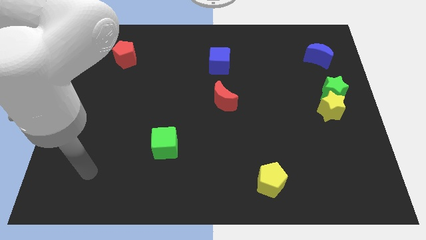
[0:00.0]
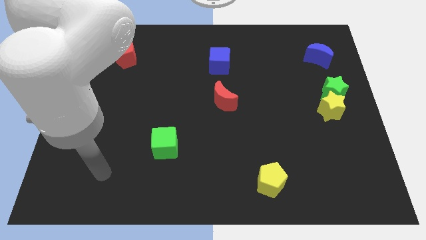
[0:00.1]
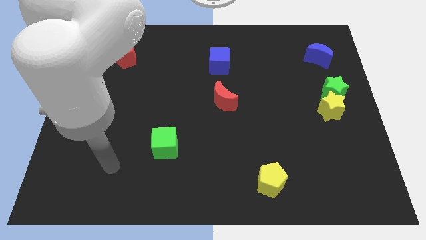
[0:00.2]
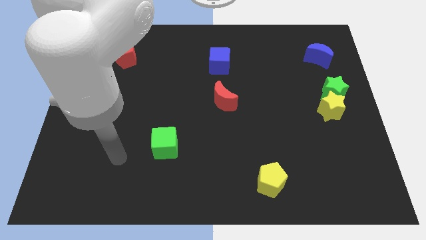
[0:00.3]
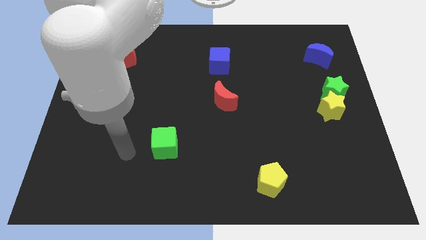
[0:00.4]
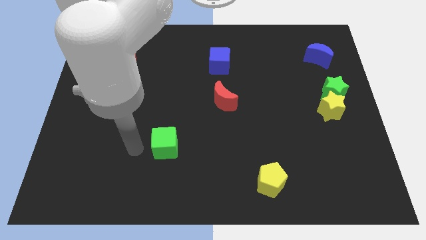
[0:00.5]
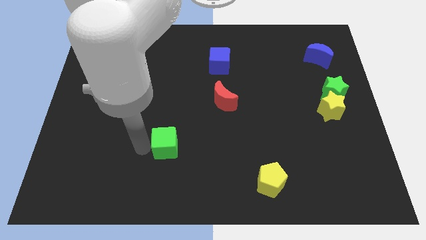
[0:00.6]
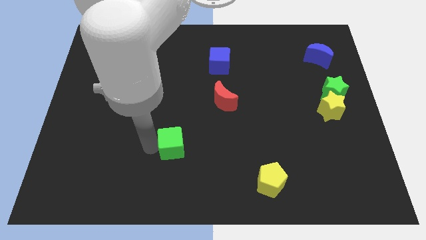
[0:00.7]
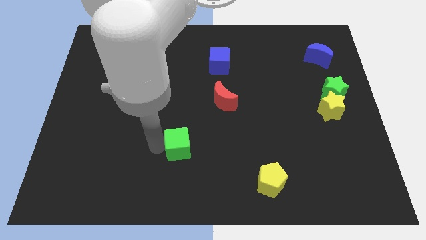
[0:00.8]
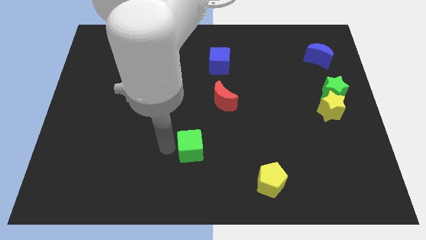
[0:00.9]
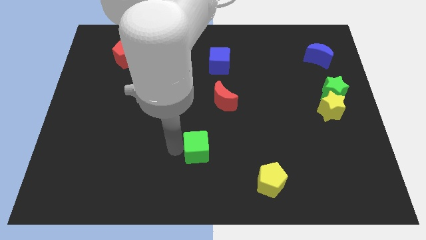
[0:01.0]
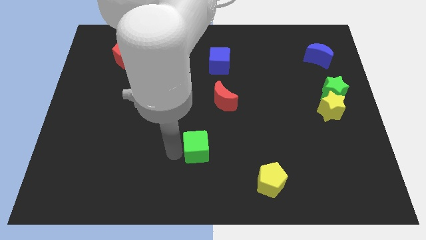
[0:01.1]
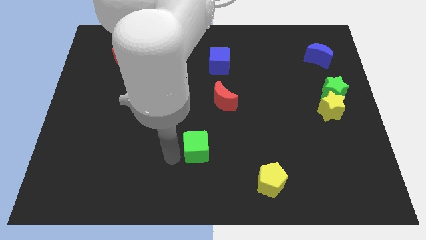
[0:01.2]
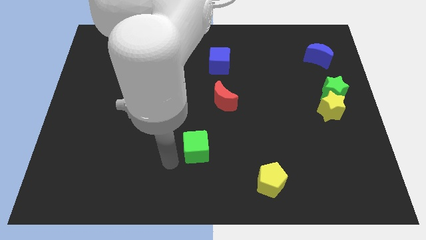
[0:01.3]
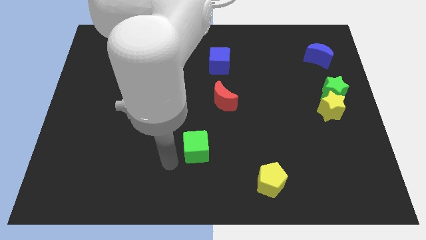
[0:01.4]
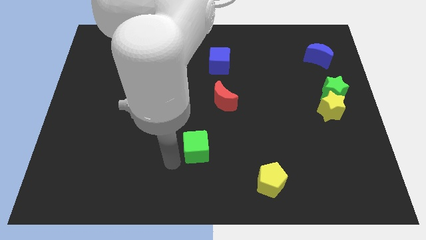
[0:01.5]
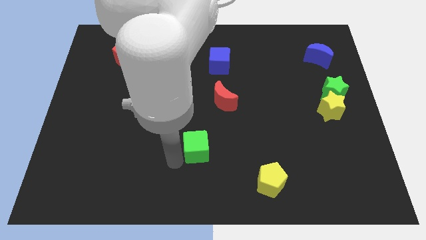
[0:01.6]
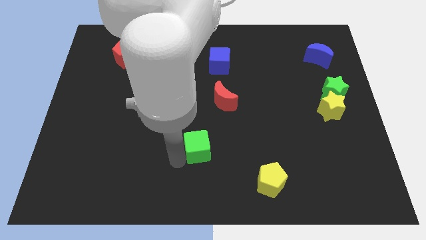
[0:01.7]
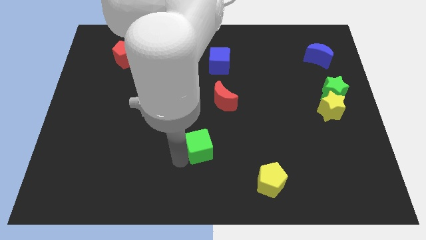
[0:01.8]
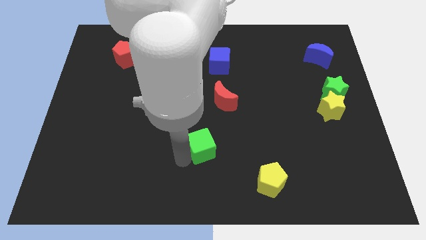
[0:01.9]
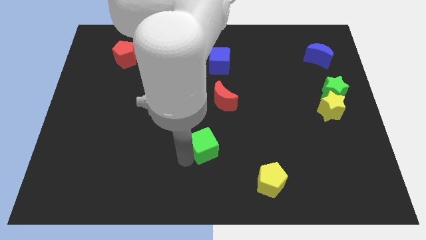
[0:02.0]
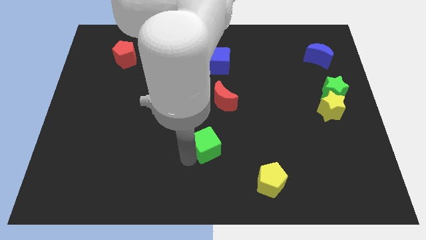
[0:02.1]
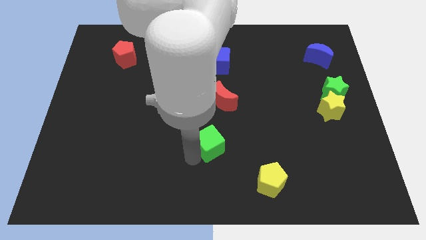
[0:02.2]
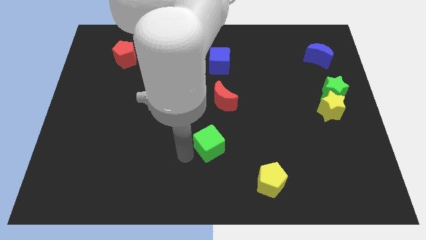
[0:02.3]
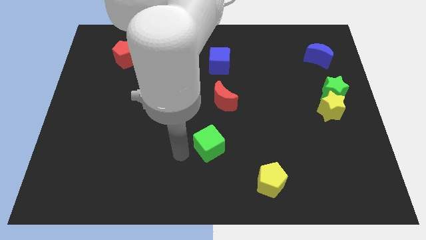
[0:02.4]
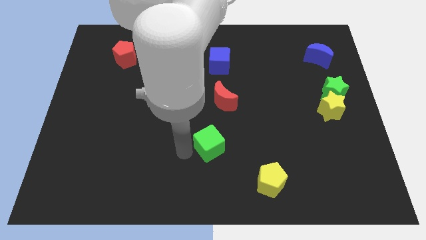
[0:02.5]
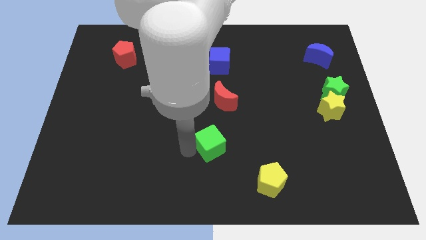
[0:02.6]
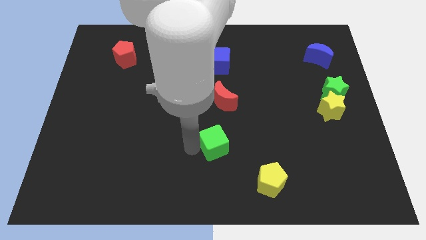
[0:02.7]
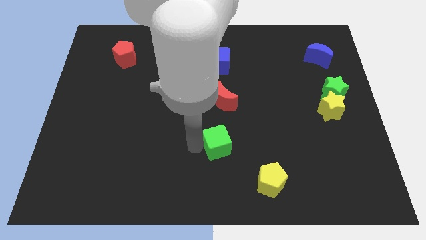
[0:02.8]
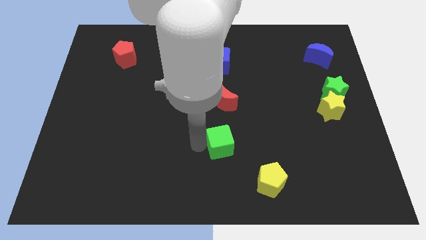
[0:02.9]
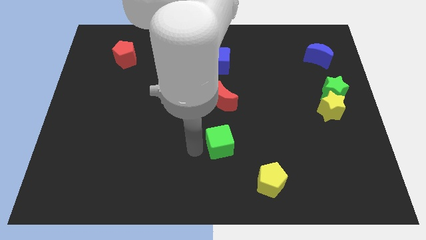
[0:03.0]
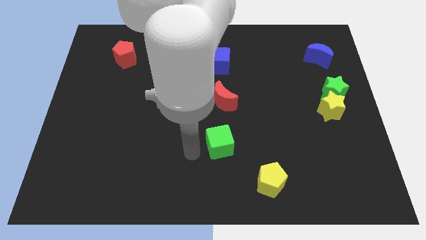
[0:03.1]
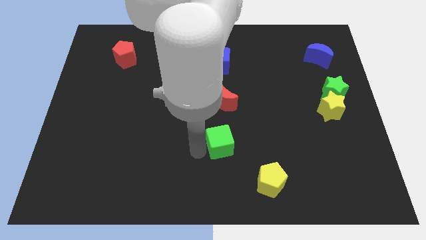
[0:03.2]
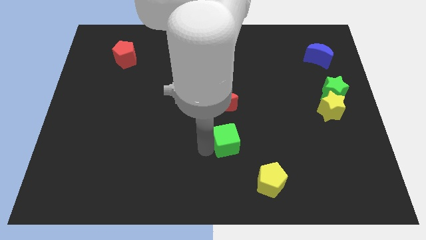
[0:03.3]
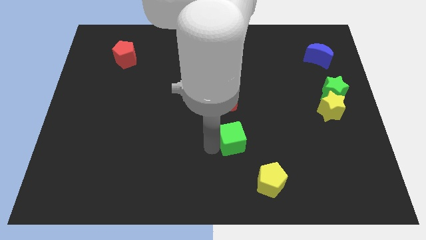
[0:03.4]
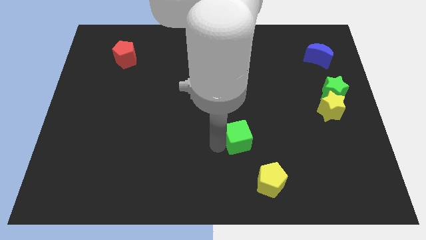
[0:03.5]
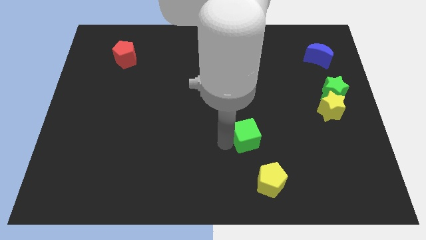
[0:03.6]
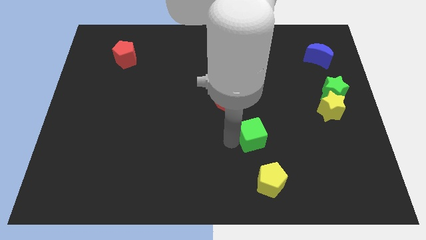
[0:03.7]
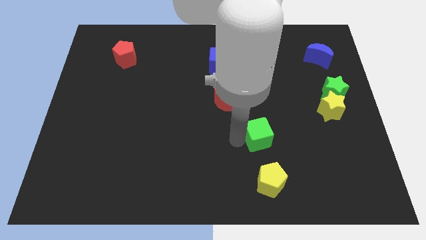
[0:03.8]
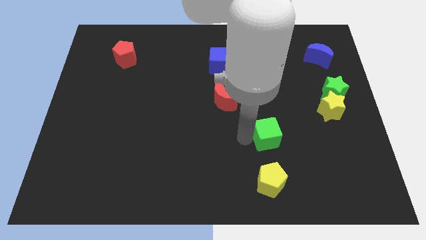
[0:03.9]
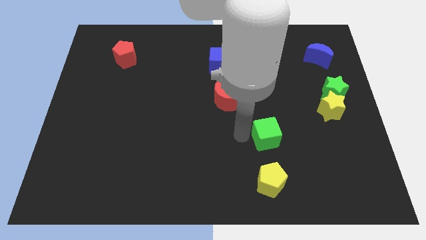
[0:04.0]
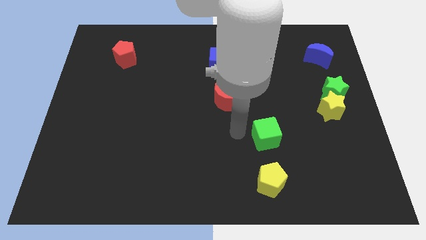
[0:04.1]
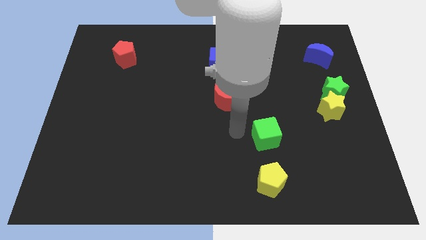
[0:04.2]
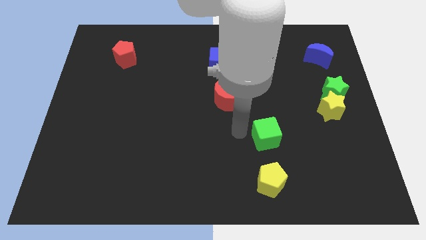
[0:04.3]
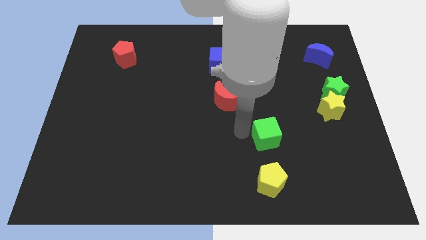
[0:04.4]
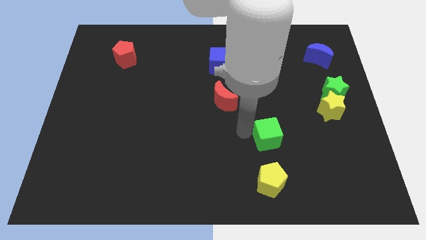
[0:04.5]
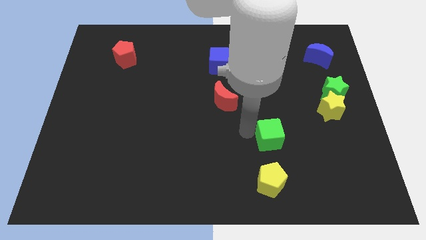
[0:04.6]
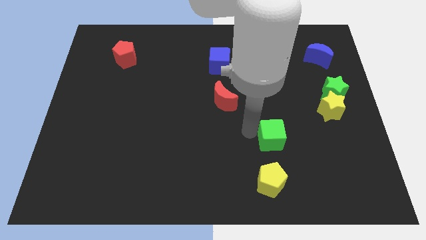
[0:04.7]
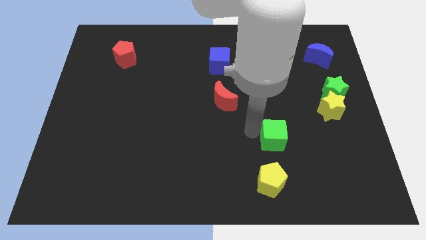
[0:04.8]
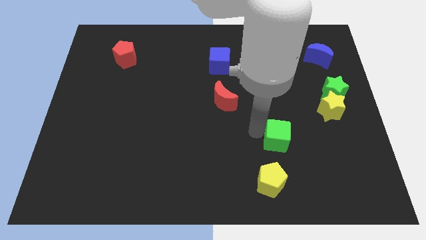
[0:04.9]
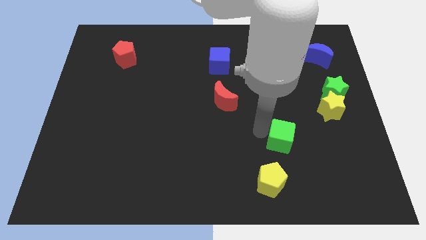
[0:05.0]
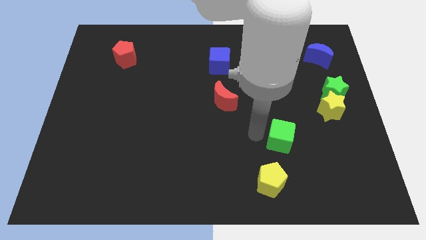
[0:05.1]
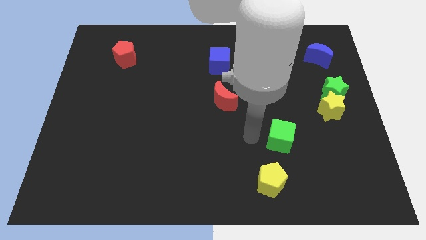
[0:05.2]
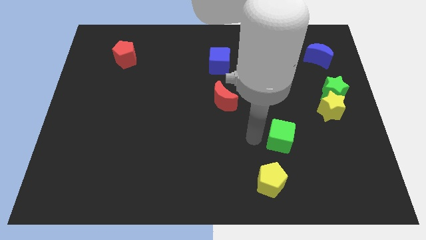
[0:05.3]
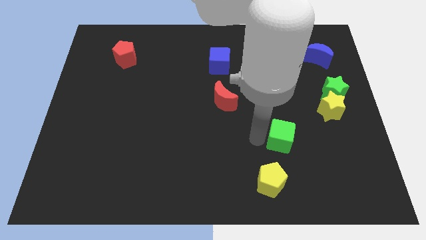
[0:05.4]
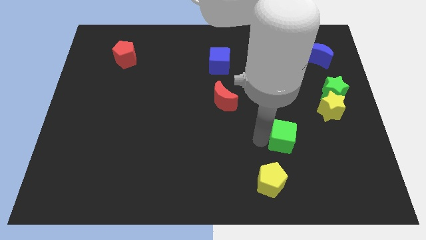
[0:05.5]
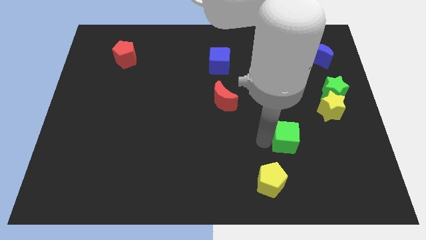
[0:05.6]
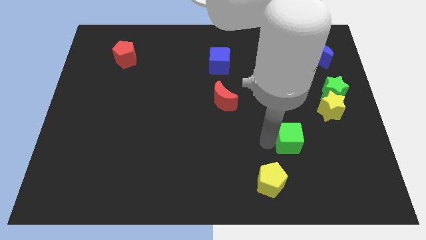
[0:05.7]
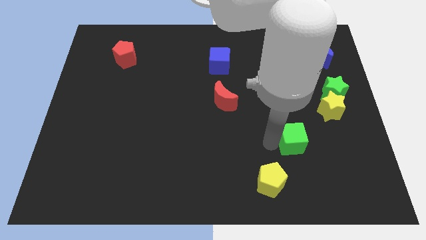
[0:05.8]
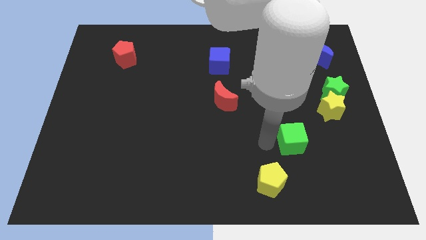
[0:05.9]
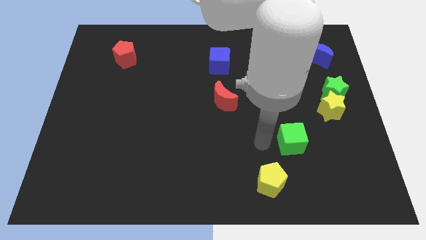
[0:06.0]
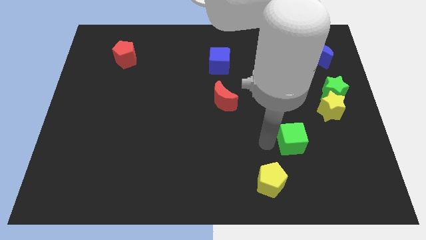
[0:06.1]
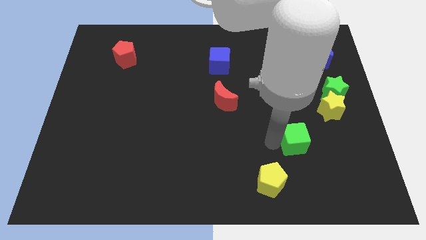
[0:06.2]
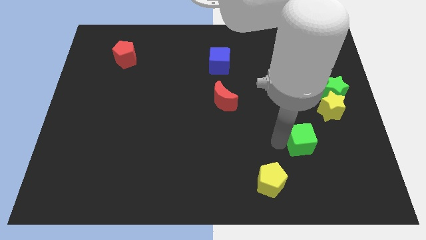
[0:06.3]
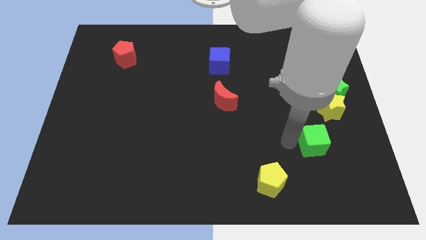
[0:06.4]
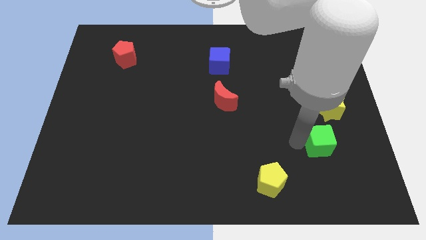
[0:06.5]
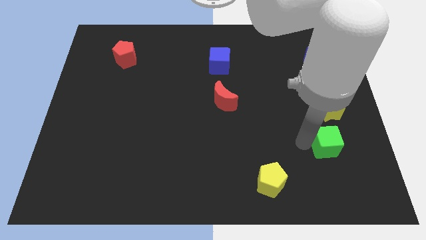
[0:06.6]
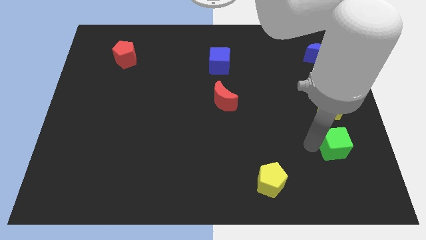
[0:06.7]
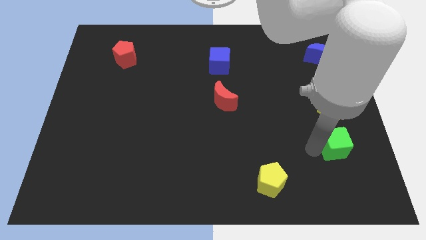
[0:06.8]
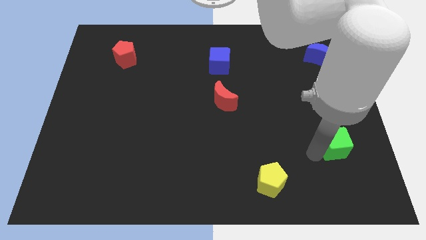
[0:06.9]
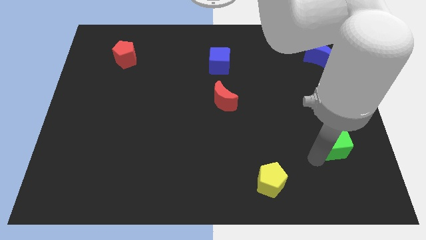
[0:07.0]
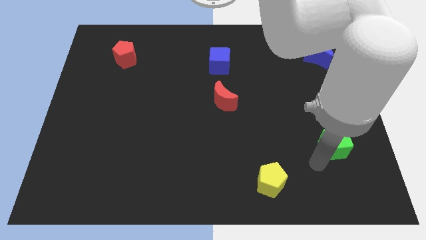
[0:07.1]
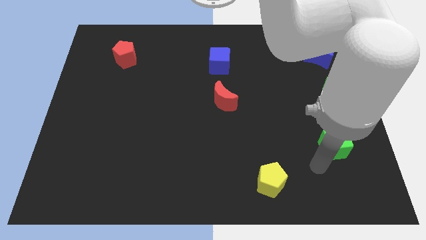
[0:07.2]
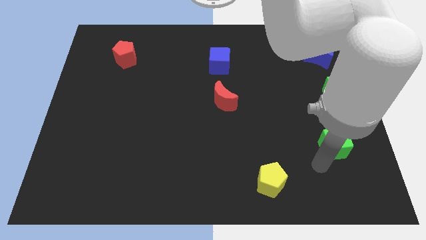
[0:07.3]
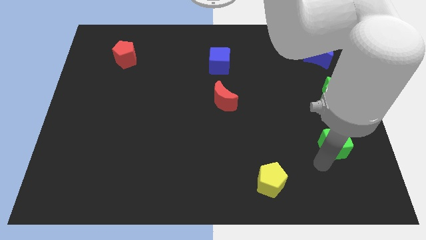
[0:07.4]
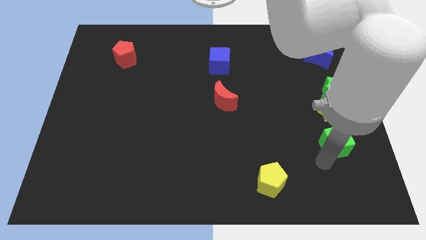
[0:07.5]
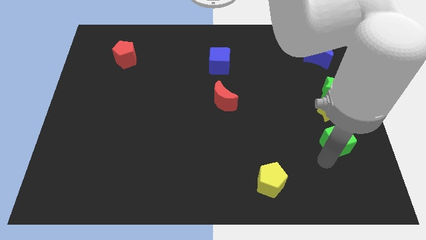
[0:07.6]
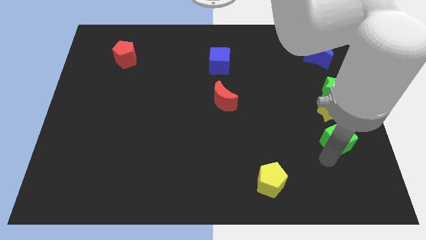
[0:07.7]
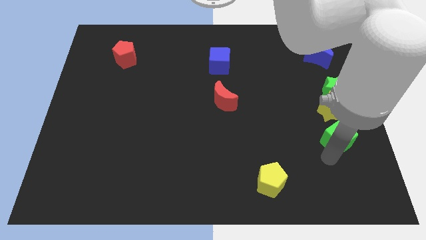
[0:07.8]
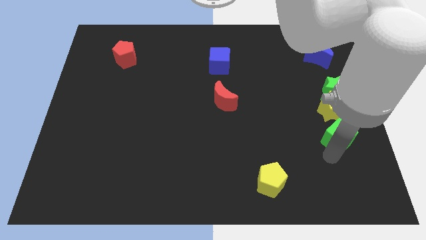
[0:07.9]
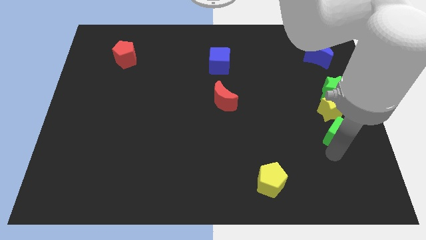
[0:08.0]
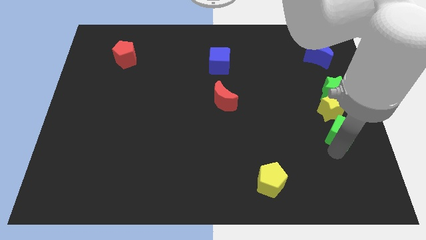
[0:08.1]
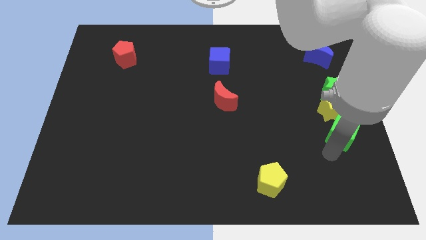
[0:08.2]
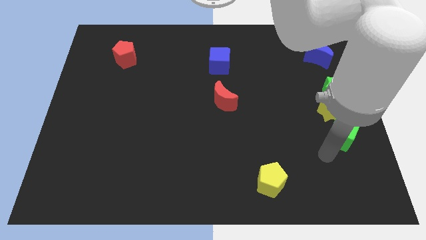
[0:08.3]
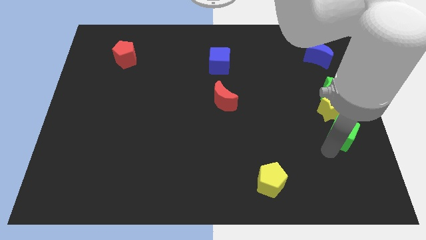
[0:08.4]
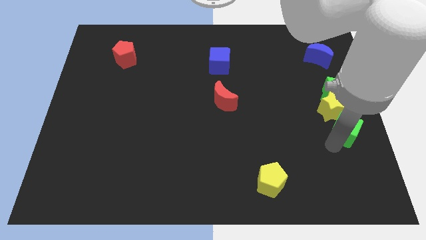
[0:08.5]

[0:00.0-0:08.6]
slide the green cube to the right side of the board

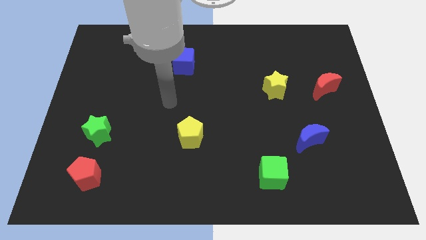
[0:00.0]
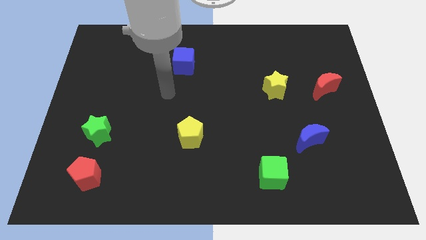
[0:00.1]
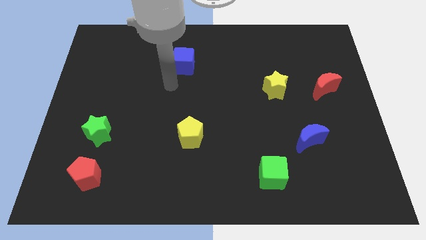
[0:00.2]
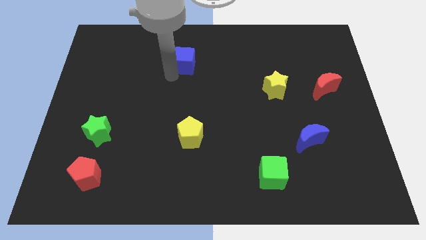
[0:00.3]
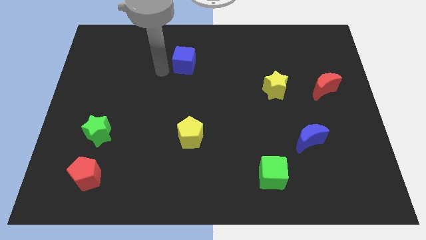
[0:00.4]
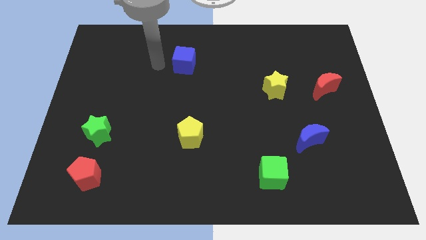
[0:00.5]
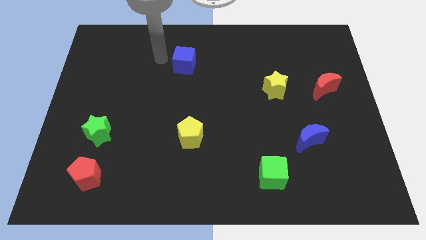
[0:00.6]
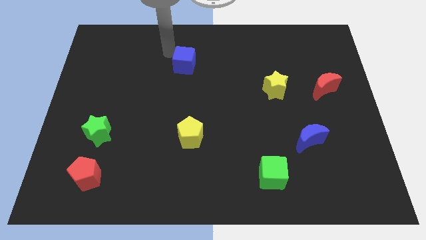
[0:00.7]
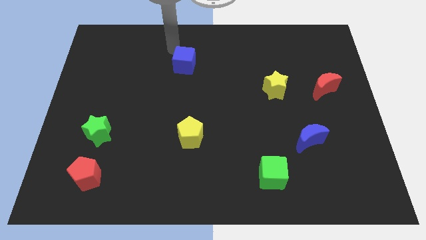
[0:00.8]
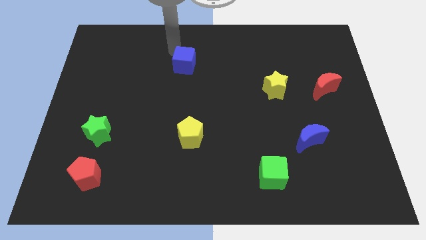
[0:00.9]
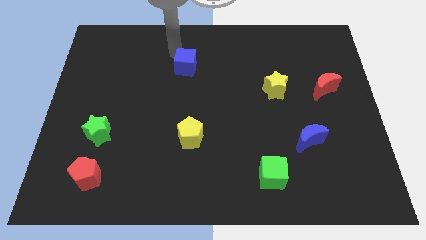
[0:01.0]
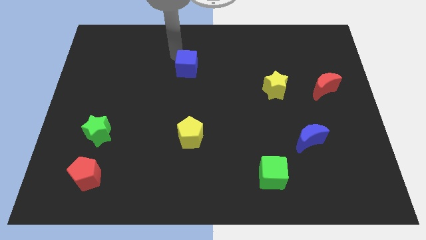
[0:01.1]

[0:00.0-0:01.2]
push the blue cube to the middle
